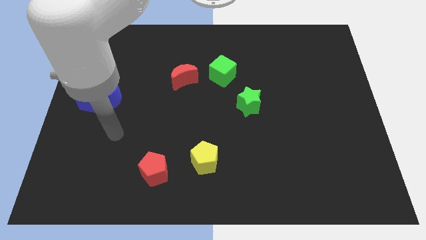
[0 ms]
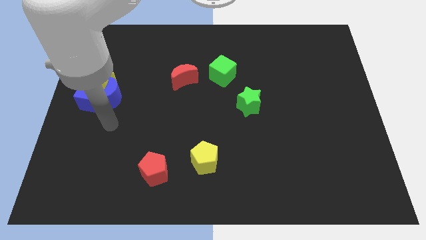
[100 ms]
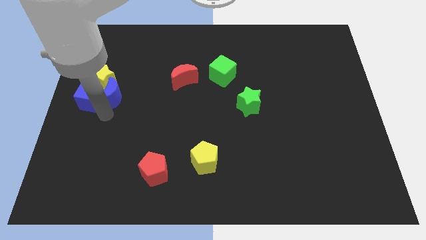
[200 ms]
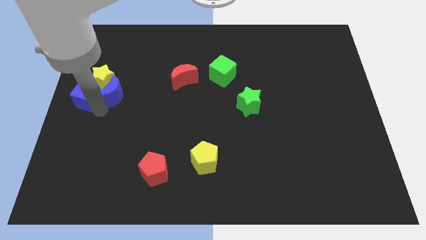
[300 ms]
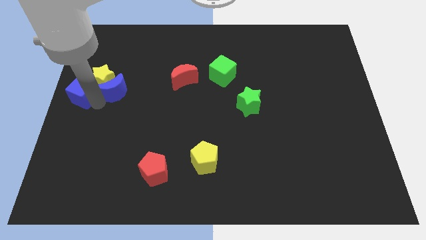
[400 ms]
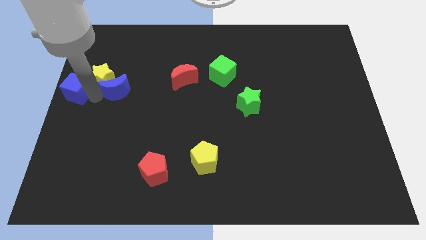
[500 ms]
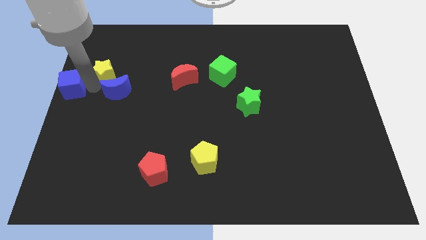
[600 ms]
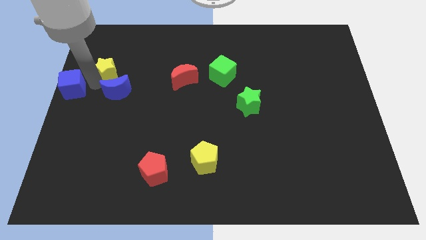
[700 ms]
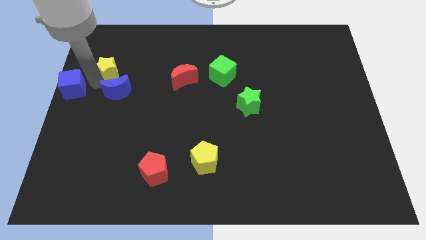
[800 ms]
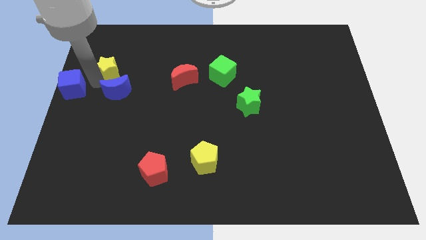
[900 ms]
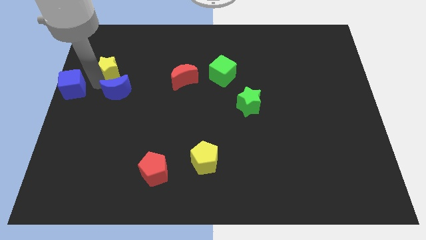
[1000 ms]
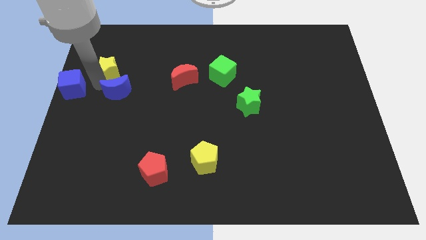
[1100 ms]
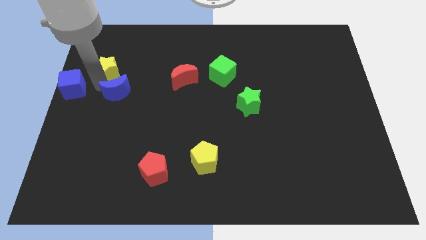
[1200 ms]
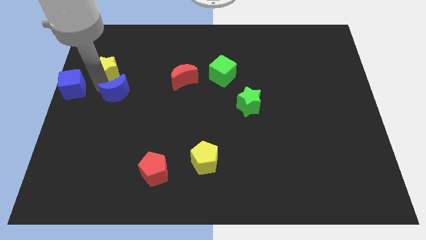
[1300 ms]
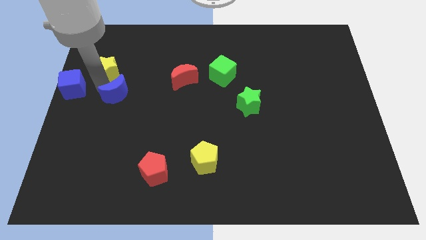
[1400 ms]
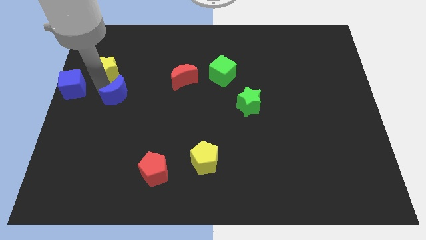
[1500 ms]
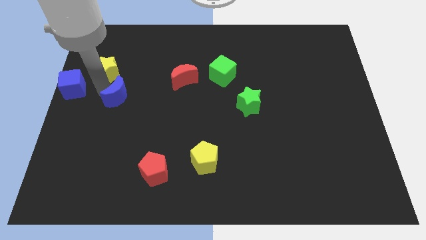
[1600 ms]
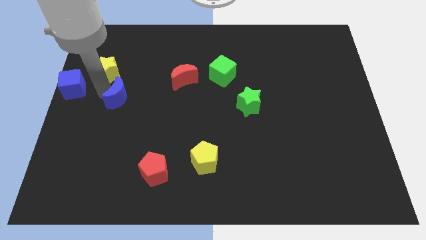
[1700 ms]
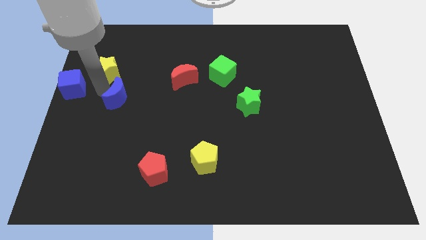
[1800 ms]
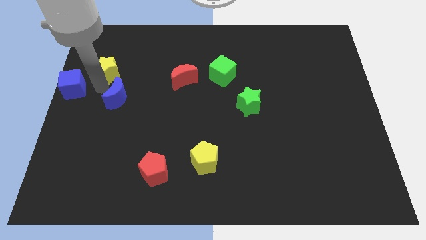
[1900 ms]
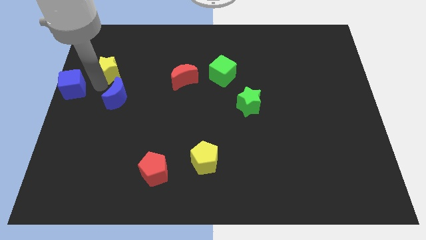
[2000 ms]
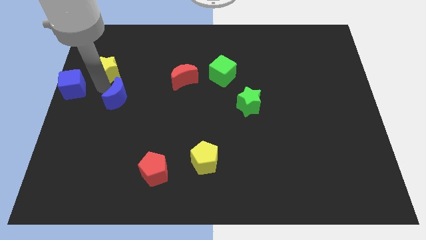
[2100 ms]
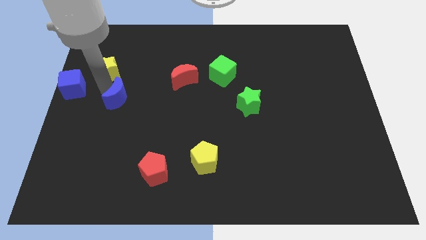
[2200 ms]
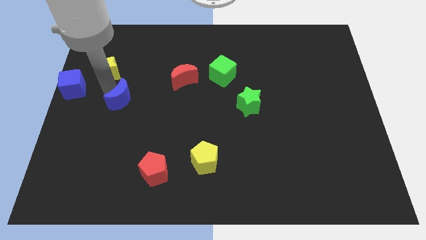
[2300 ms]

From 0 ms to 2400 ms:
separate the blue moon from the blue cube and yellow star

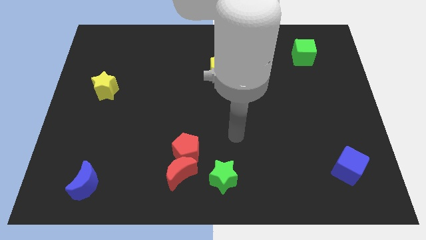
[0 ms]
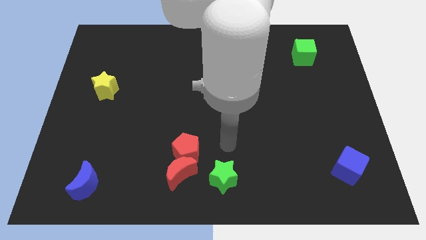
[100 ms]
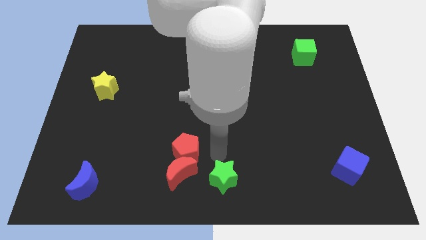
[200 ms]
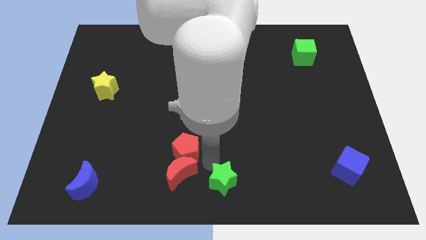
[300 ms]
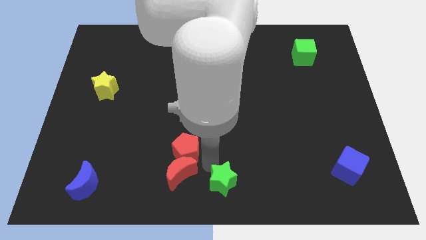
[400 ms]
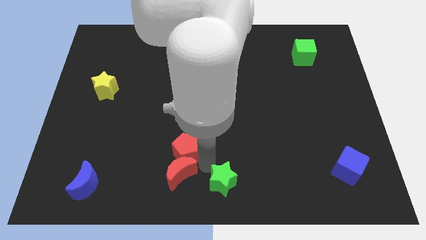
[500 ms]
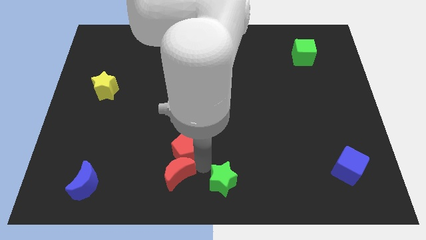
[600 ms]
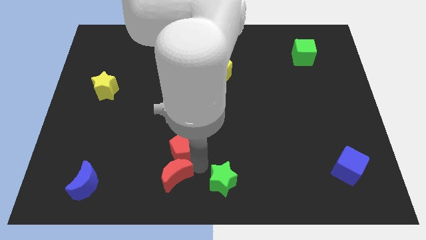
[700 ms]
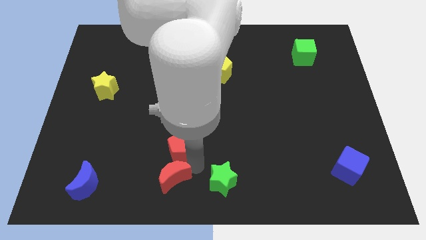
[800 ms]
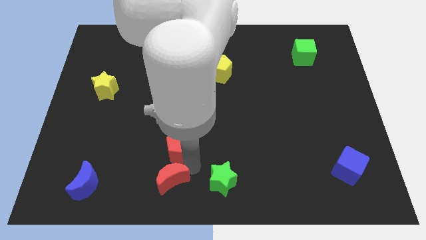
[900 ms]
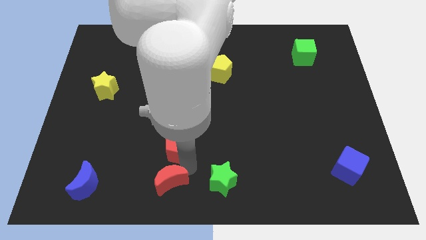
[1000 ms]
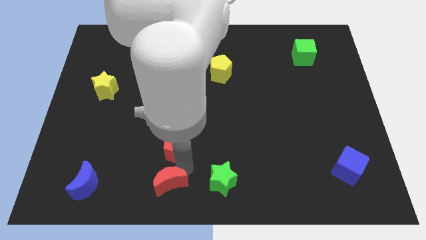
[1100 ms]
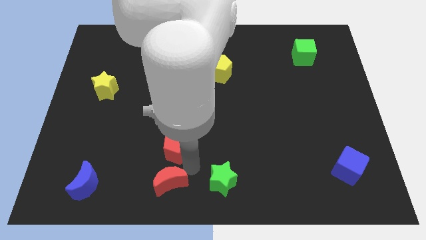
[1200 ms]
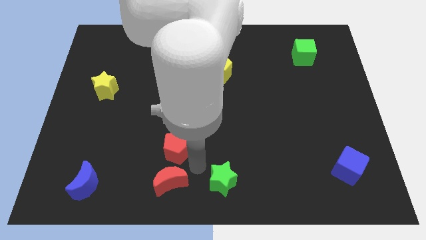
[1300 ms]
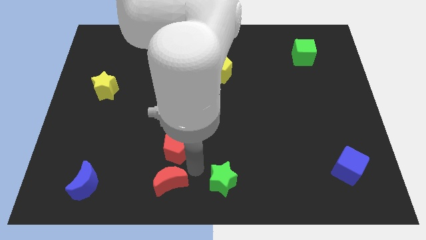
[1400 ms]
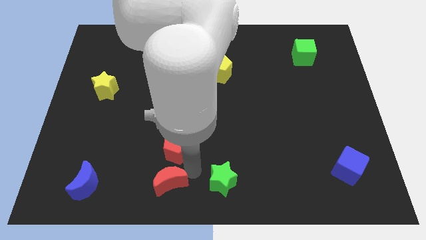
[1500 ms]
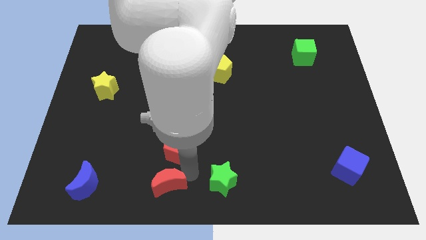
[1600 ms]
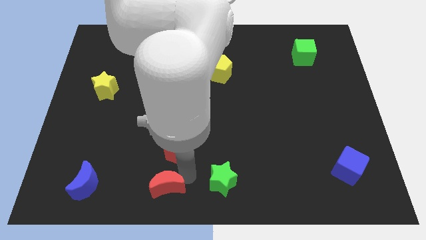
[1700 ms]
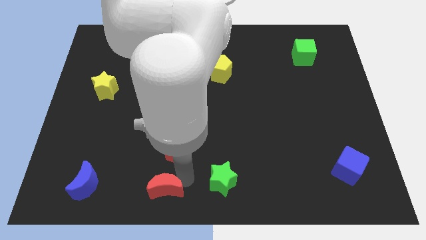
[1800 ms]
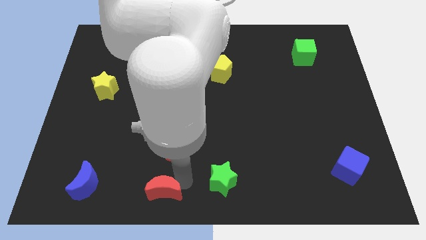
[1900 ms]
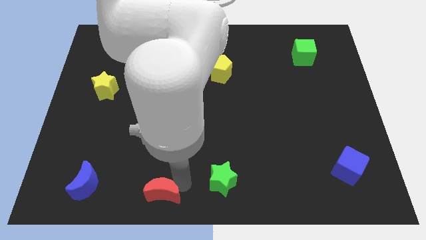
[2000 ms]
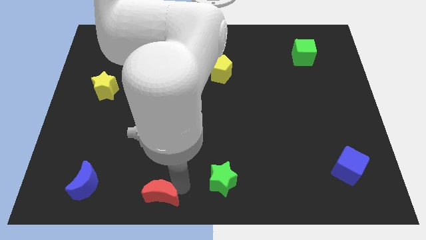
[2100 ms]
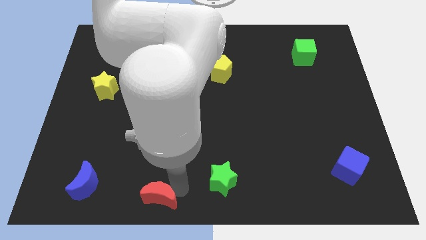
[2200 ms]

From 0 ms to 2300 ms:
separate the red moon from the red pentagon and green star

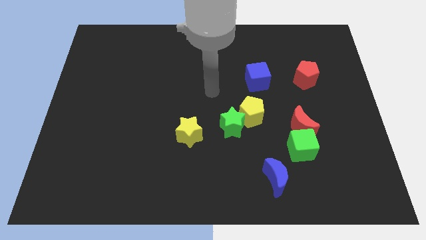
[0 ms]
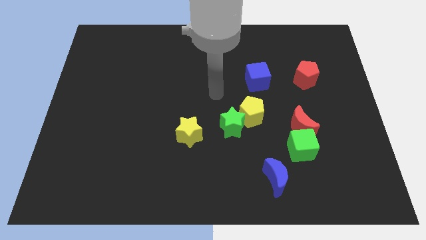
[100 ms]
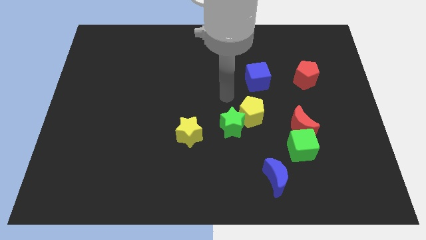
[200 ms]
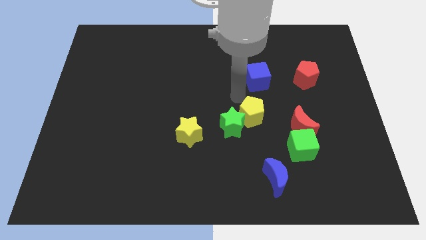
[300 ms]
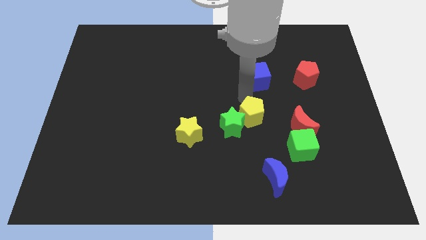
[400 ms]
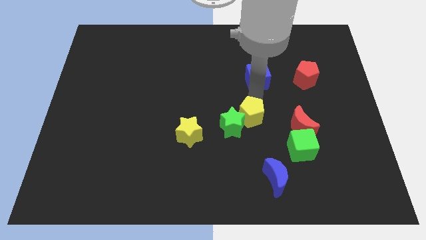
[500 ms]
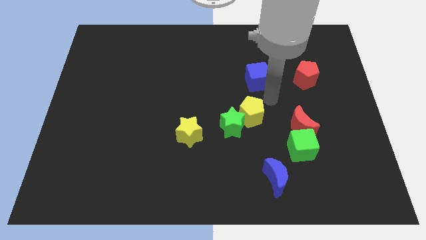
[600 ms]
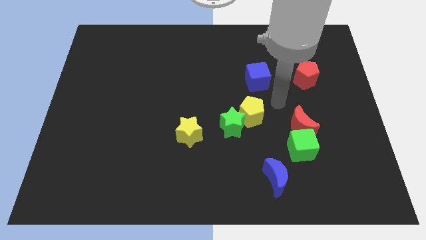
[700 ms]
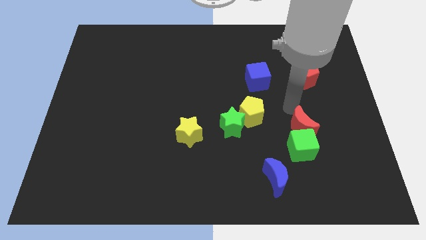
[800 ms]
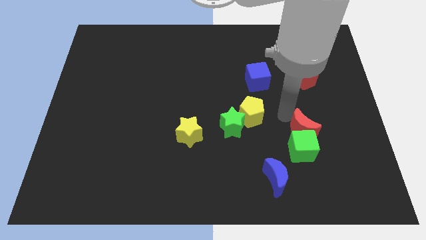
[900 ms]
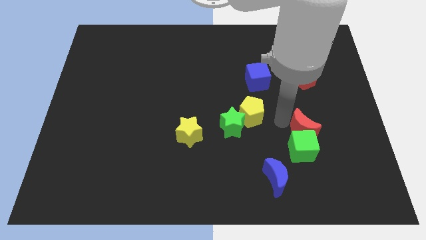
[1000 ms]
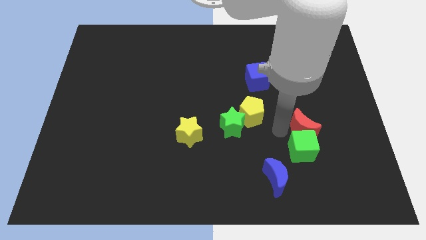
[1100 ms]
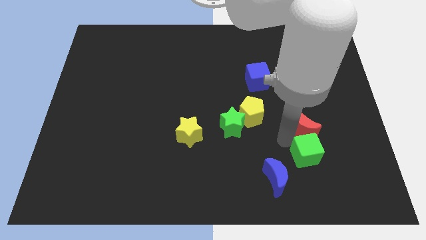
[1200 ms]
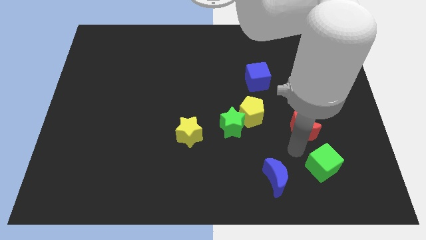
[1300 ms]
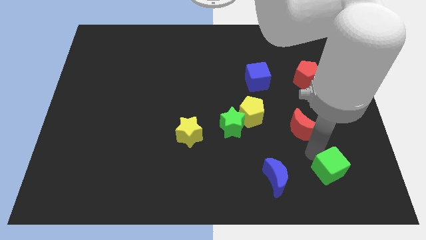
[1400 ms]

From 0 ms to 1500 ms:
pull the red moon apart from the green cube

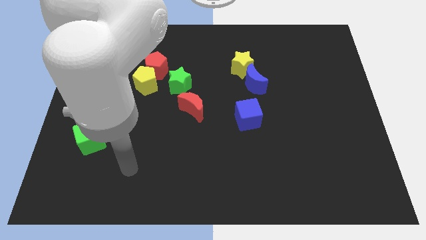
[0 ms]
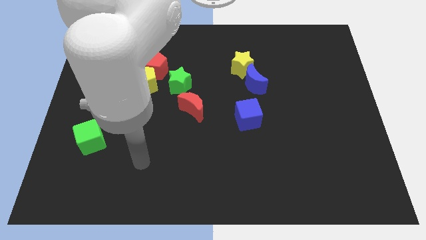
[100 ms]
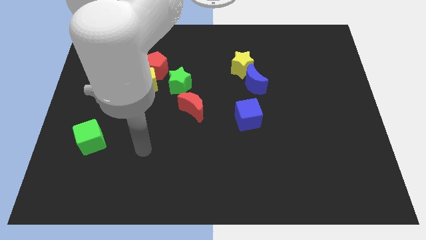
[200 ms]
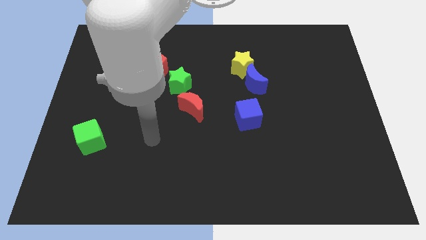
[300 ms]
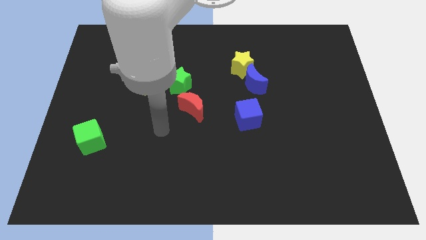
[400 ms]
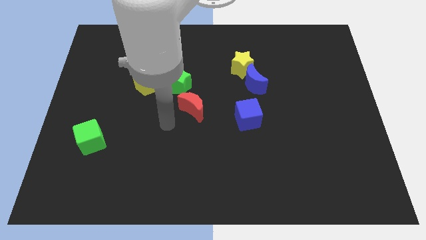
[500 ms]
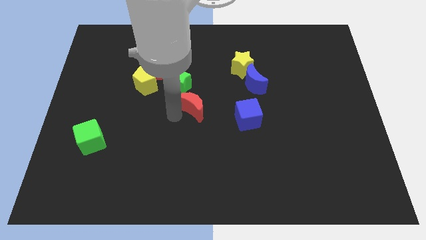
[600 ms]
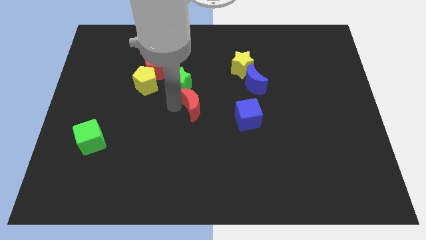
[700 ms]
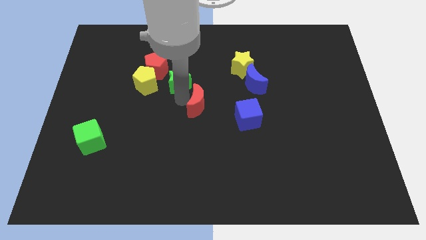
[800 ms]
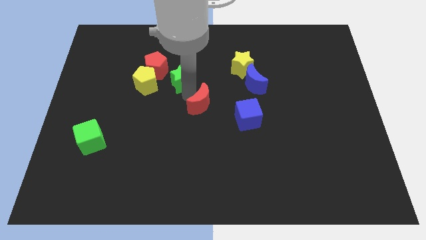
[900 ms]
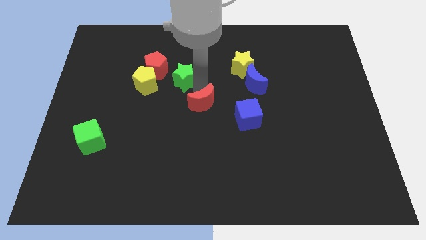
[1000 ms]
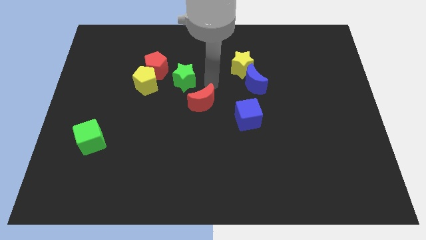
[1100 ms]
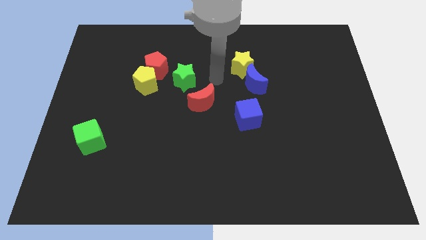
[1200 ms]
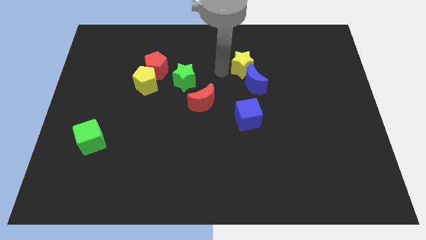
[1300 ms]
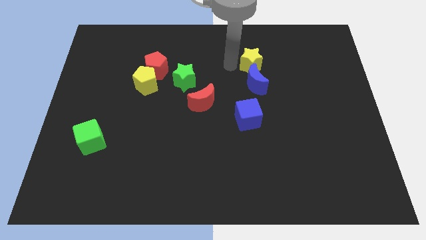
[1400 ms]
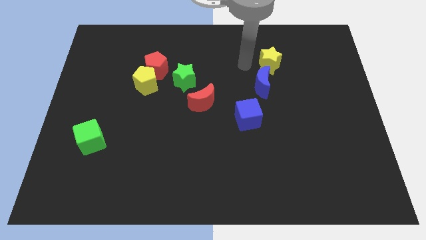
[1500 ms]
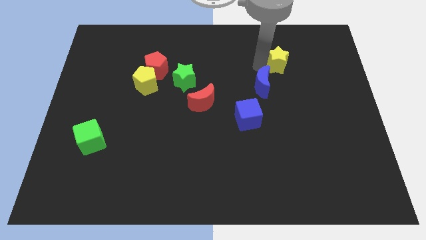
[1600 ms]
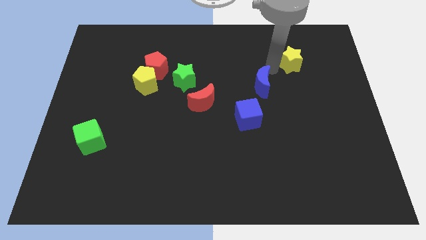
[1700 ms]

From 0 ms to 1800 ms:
move the blue moon away from the yellow star

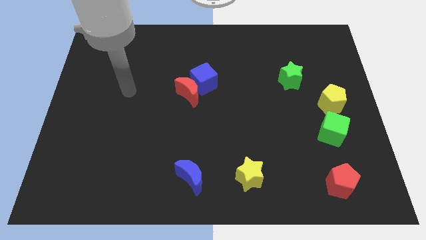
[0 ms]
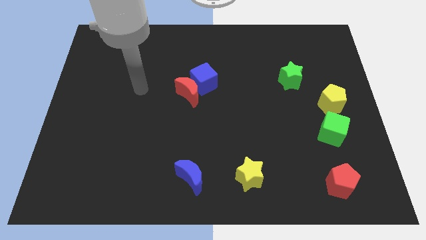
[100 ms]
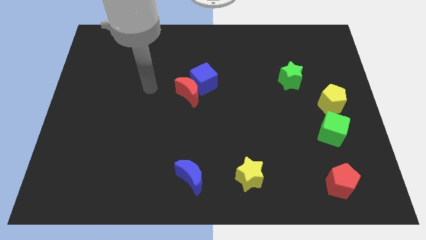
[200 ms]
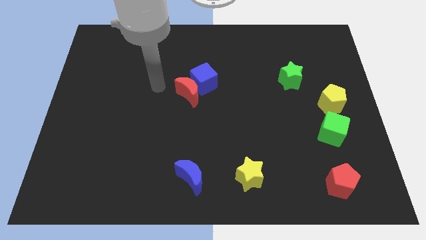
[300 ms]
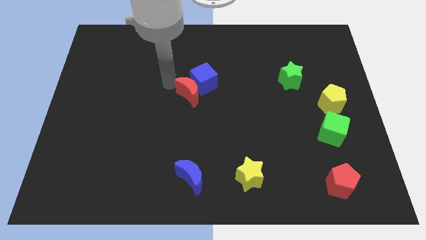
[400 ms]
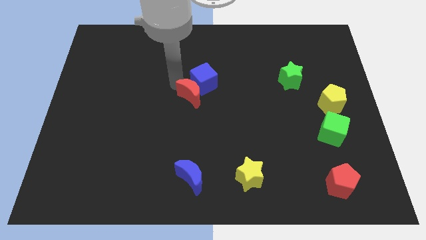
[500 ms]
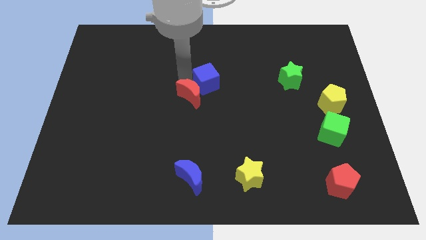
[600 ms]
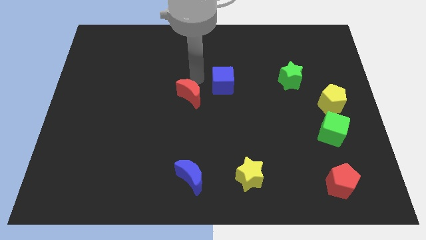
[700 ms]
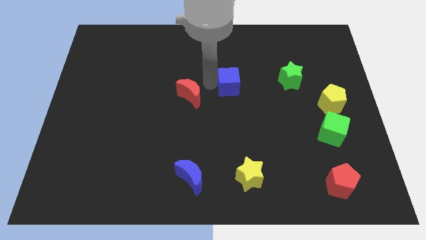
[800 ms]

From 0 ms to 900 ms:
move the red moon away from the blue cube
